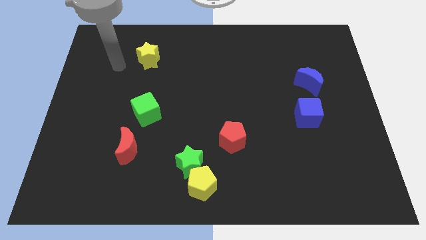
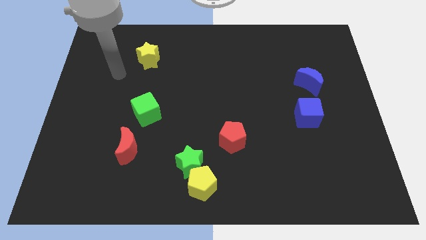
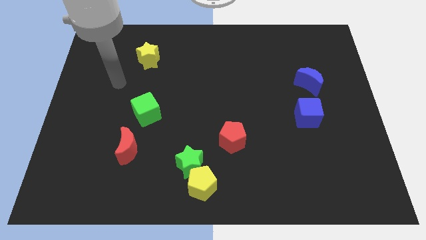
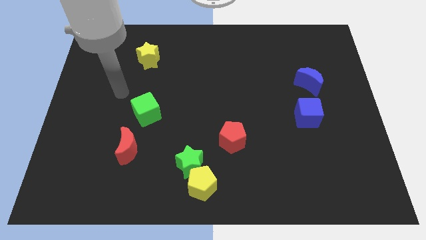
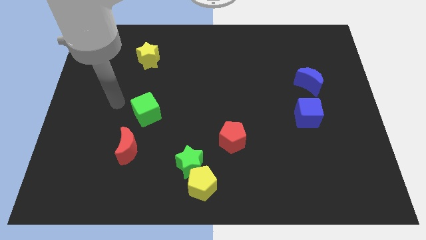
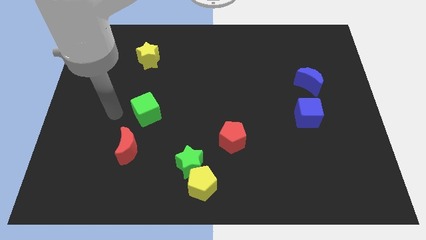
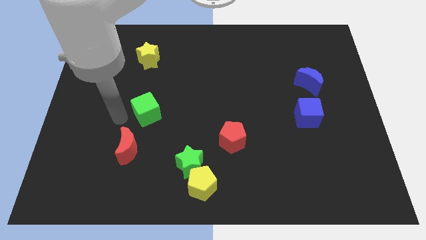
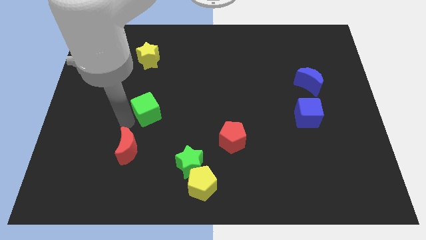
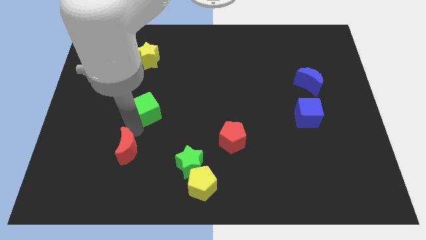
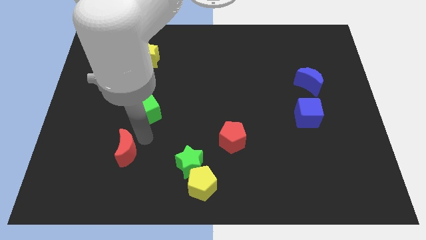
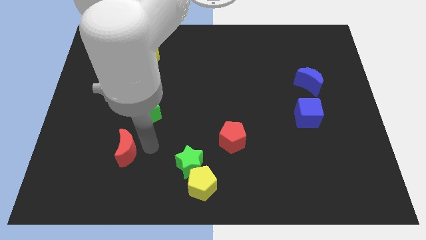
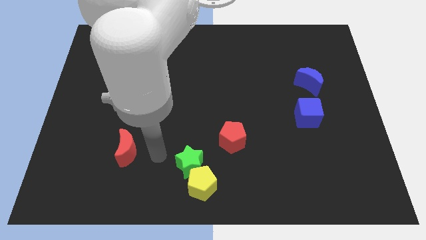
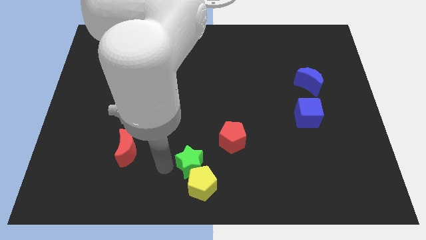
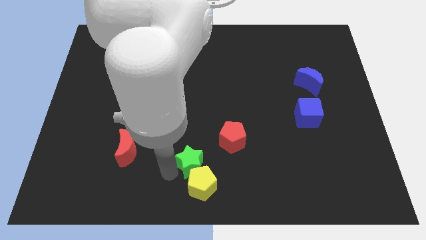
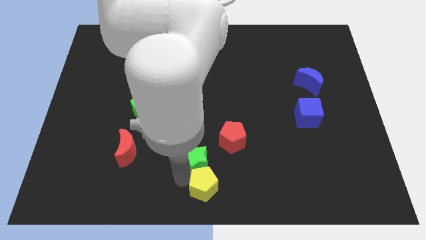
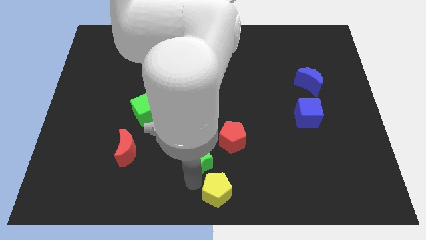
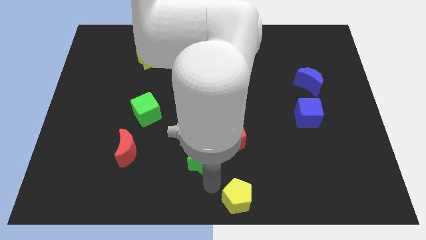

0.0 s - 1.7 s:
move the green star away from the yellow pentagon

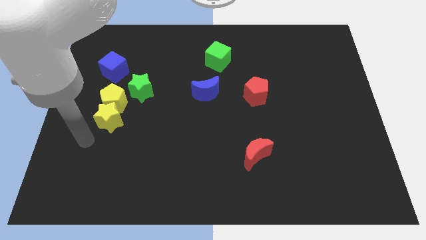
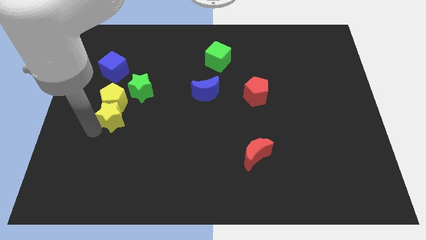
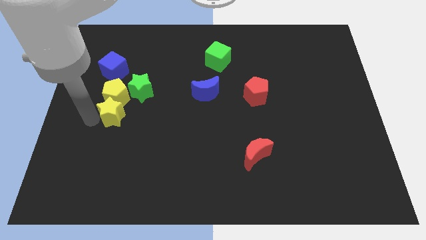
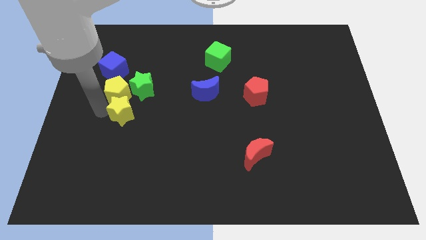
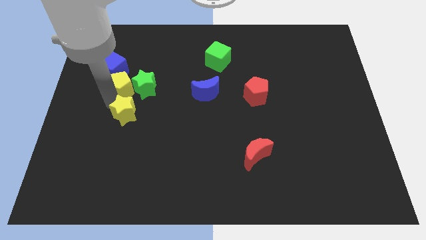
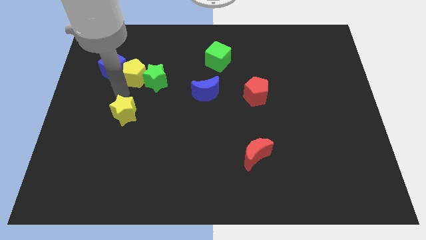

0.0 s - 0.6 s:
pull the yellow star apart from the yellow pentagon

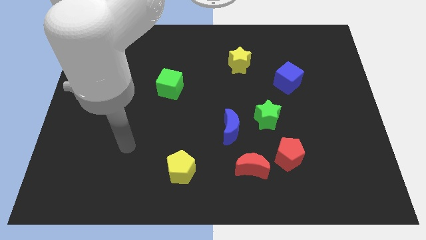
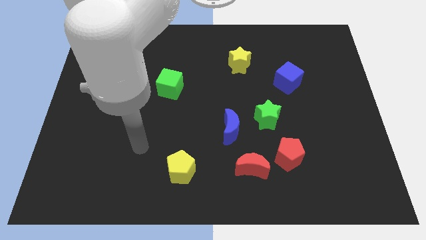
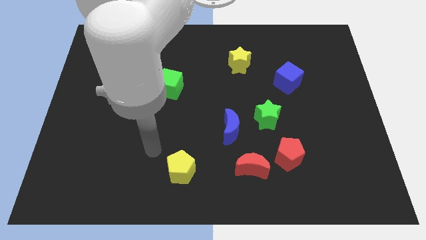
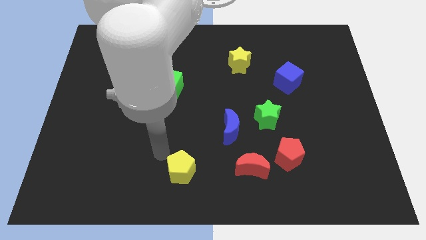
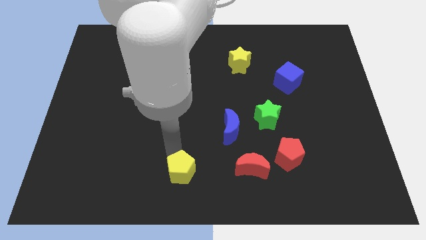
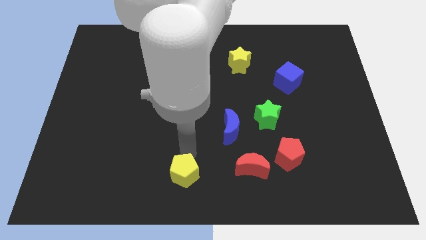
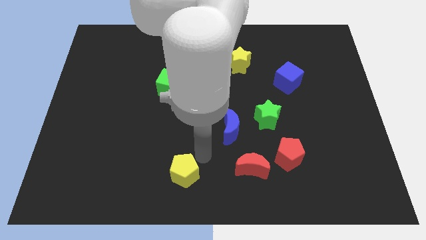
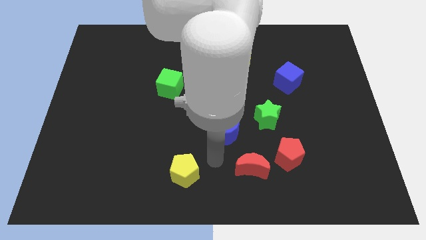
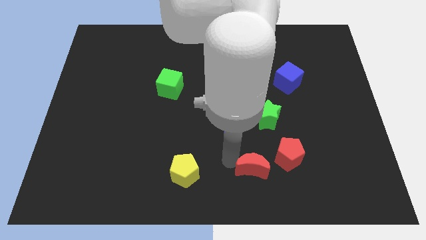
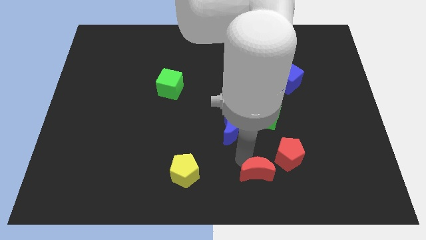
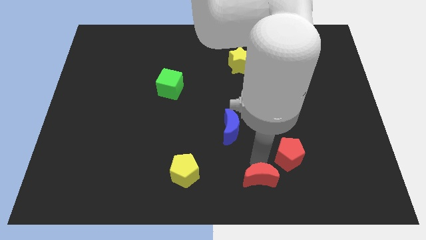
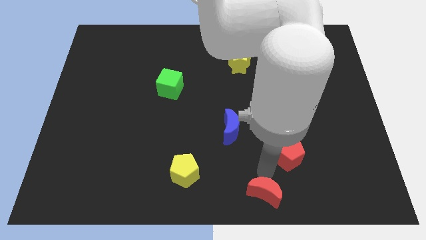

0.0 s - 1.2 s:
pull the red pentagon apart from the red moon

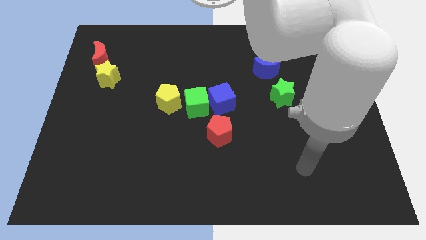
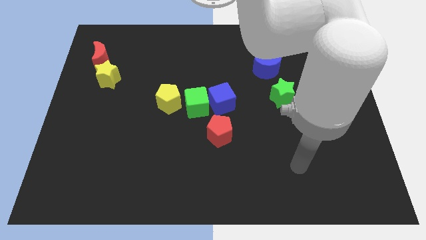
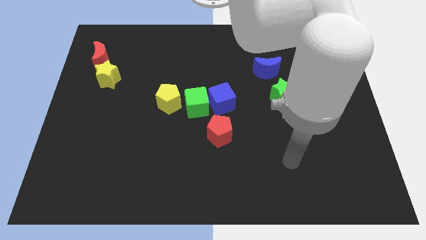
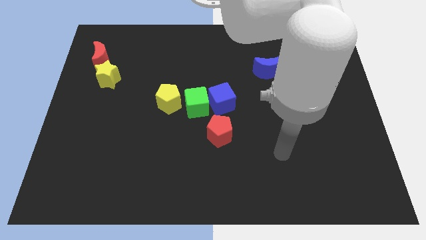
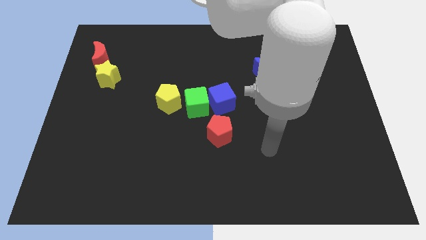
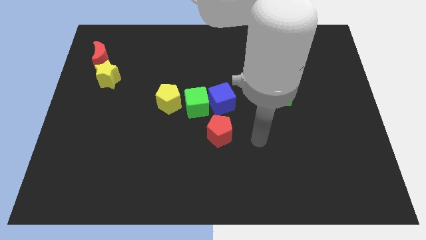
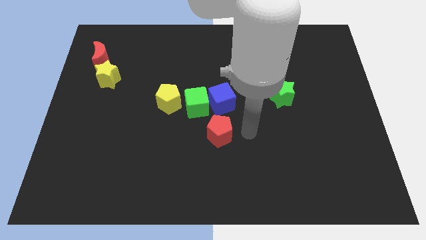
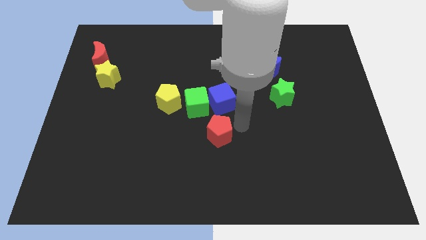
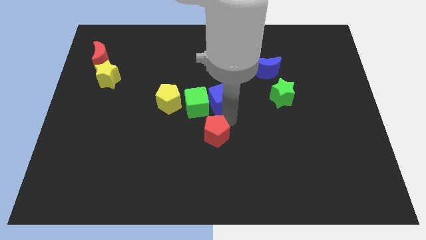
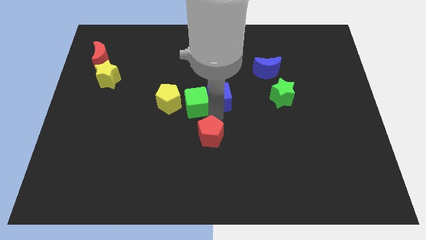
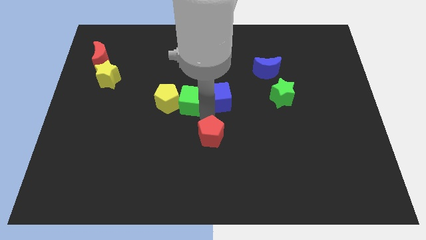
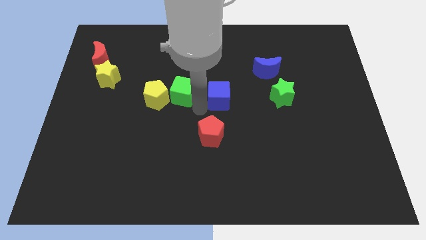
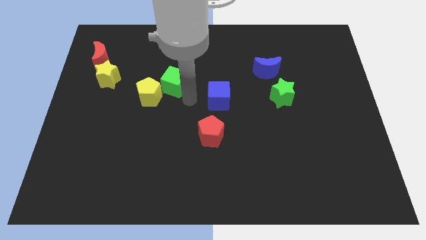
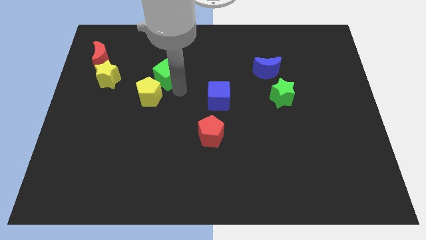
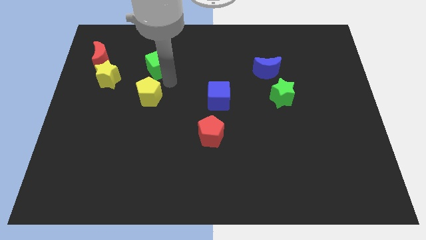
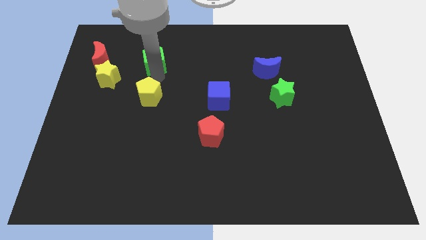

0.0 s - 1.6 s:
pull the yellow pentagon apart from the green cube

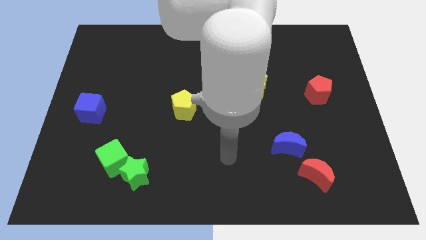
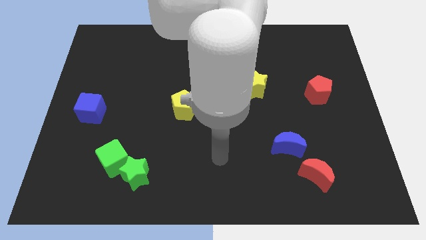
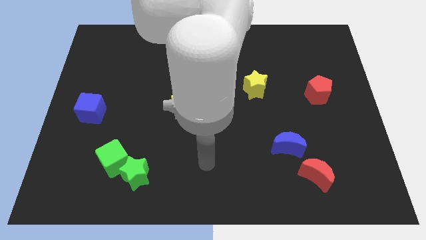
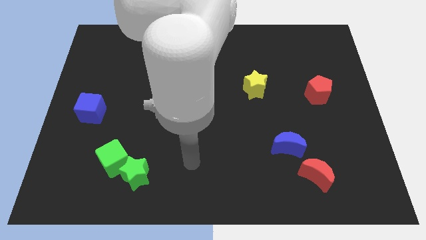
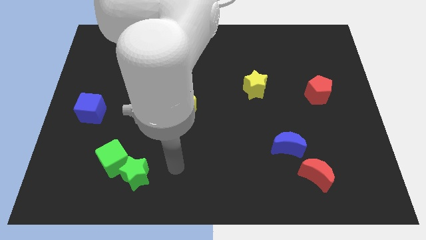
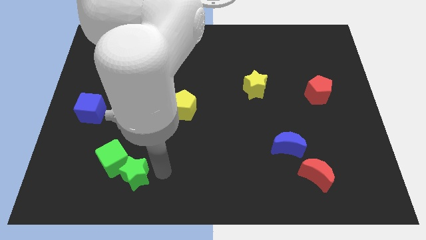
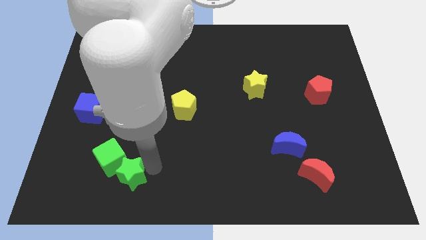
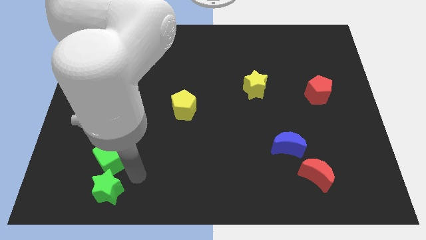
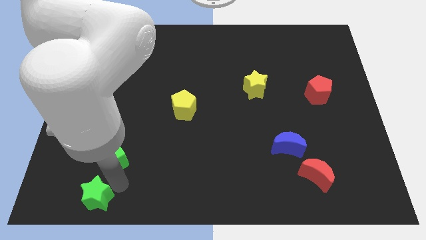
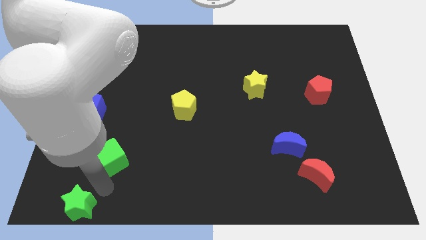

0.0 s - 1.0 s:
separate the green cube from the green star

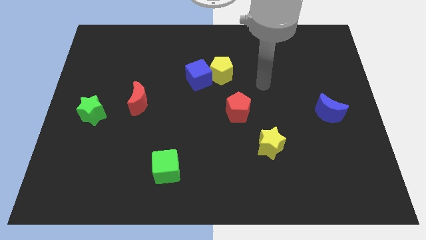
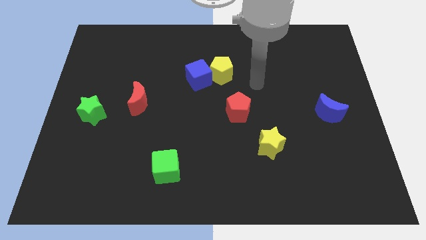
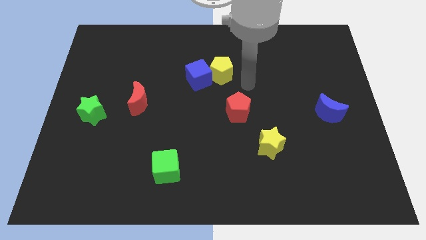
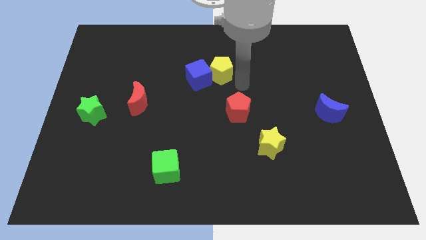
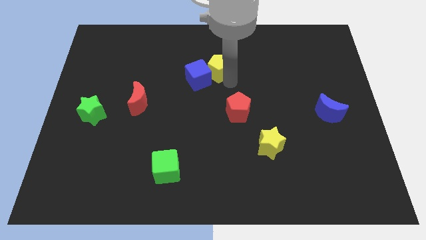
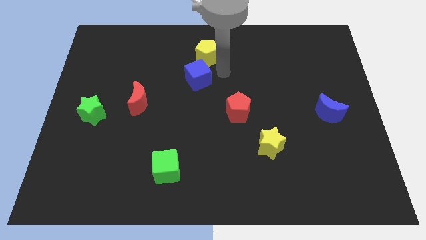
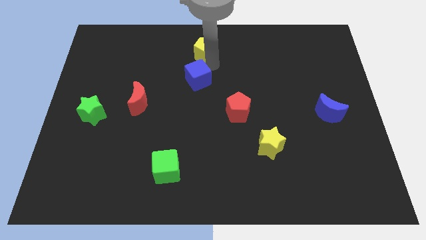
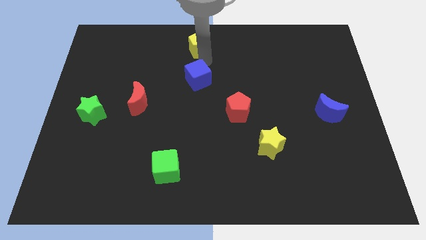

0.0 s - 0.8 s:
separate the blue cube from the yellow pentagon

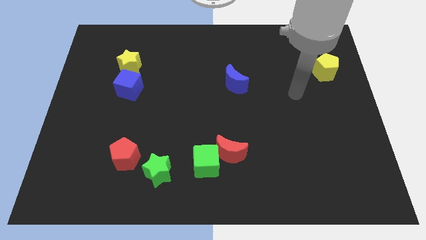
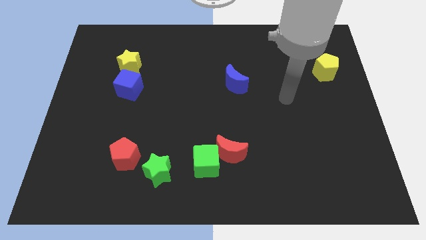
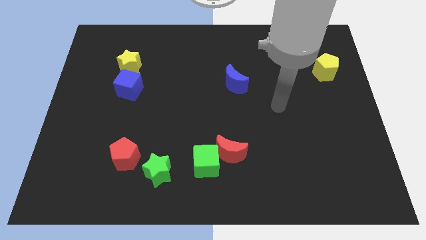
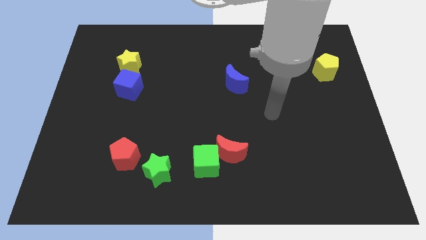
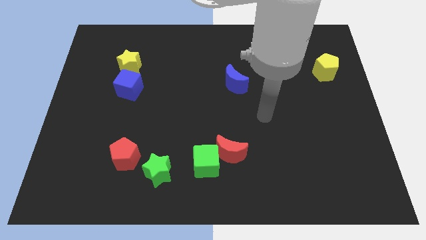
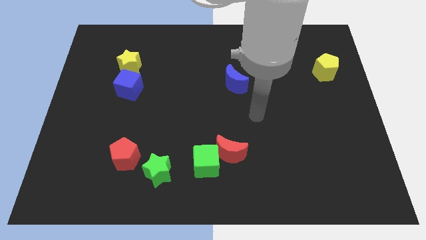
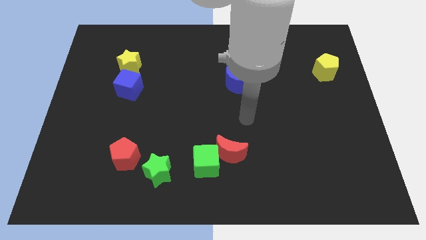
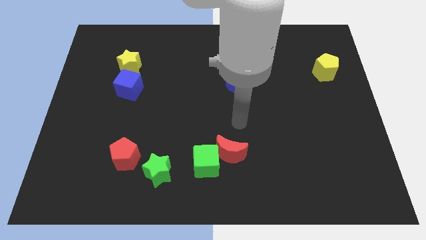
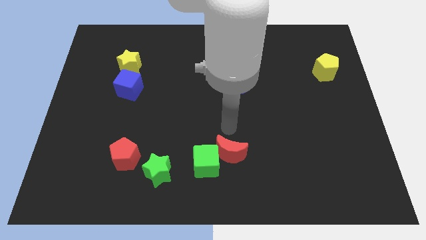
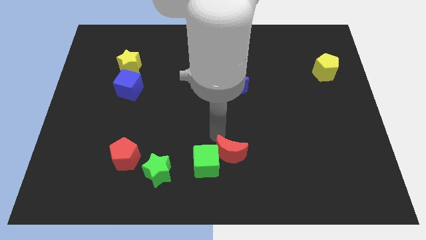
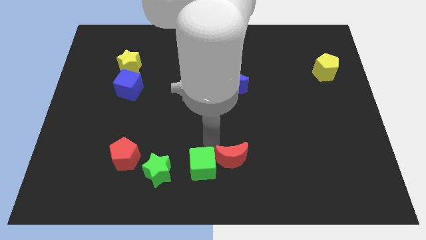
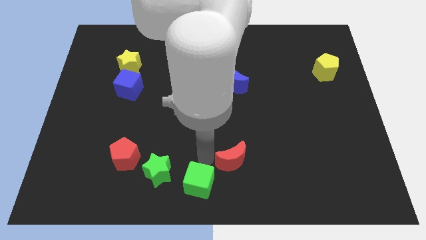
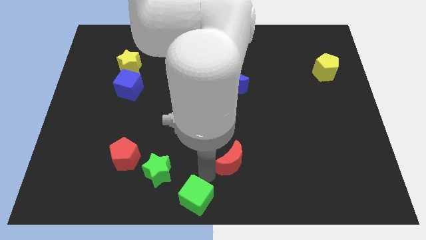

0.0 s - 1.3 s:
separate the red moon from the green cube

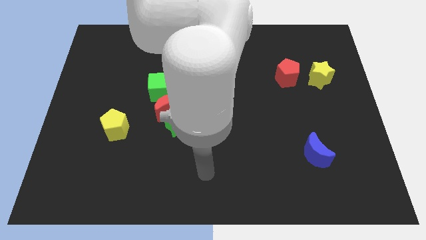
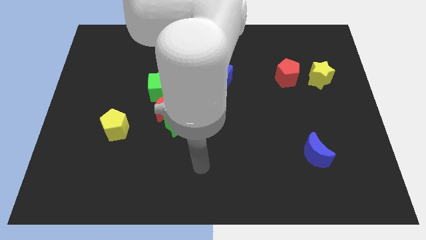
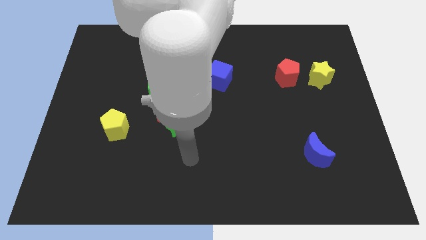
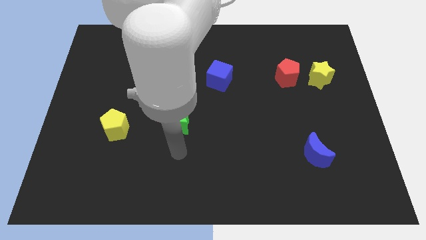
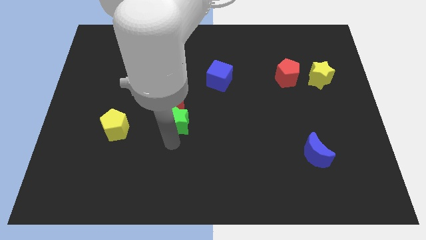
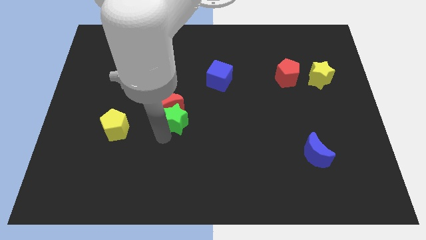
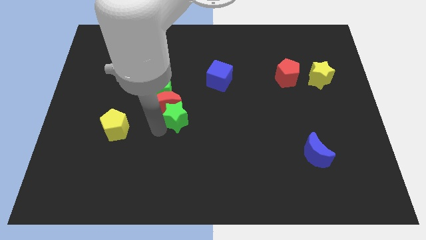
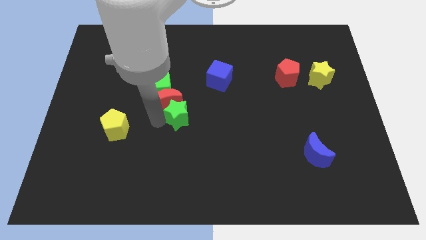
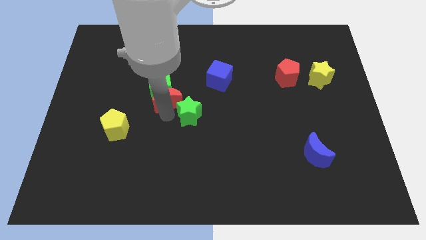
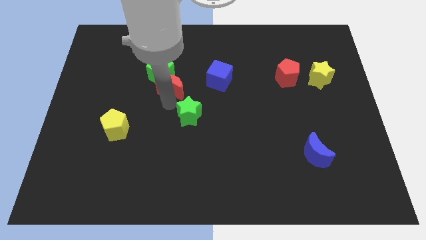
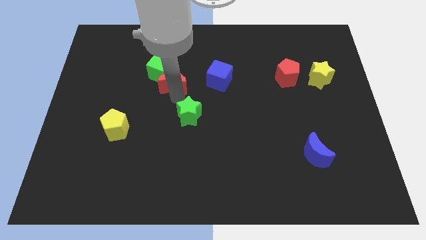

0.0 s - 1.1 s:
separate the green star from the red moon
